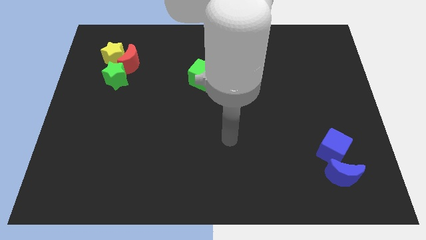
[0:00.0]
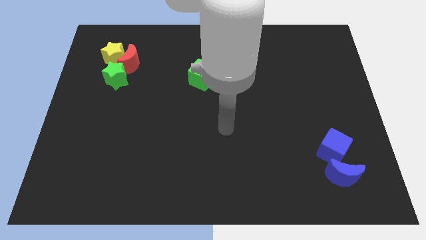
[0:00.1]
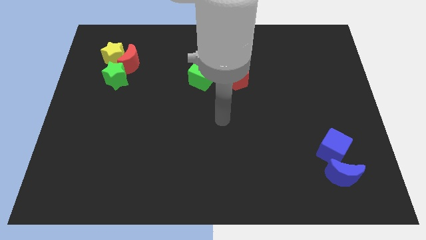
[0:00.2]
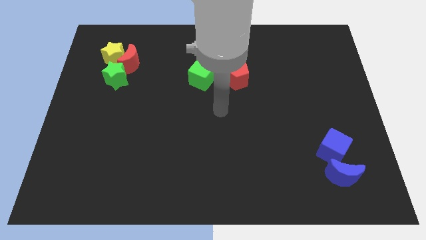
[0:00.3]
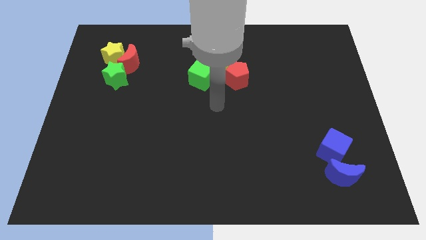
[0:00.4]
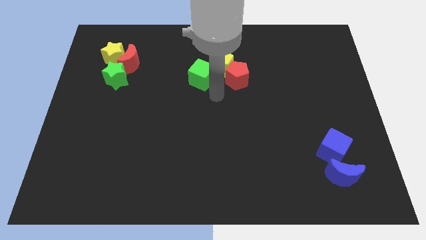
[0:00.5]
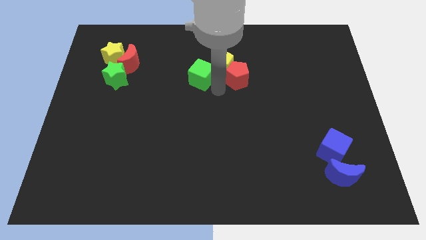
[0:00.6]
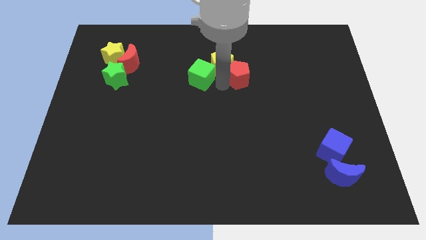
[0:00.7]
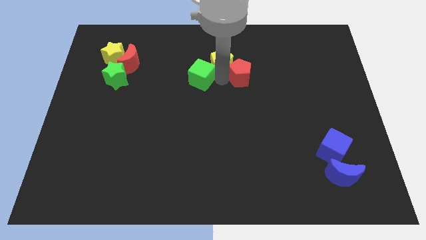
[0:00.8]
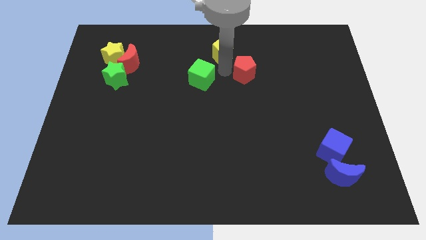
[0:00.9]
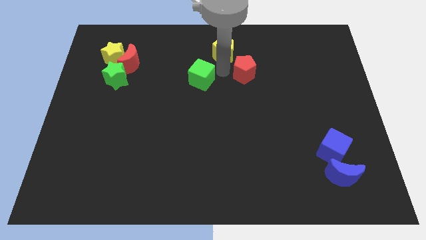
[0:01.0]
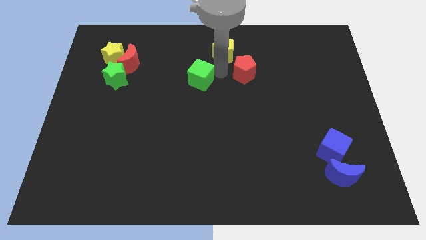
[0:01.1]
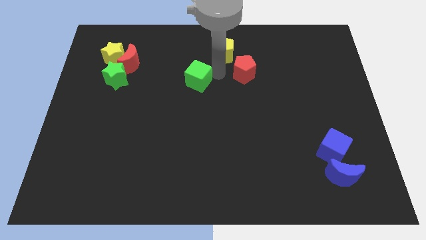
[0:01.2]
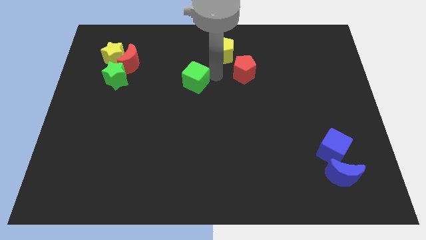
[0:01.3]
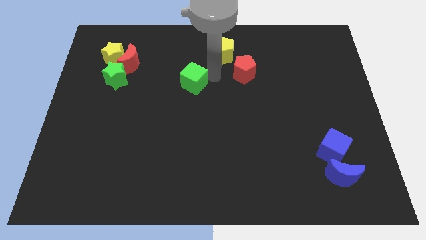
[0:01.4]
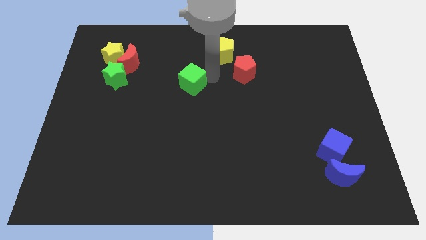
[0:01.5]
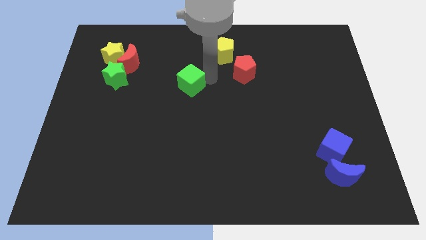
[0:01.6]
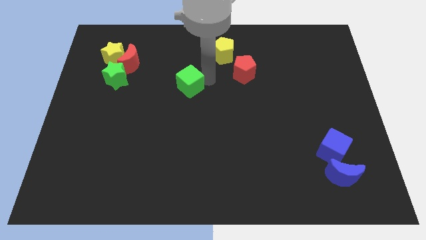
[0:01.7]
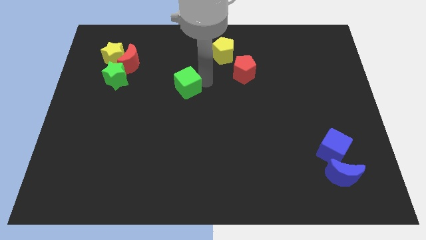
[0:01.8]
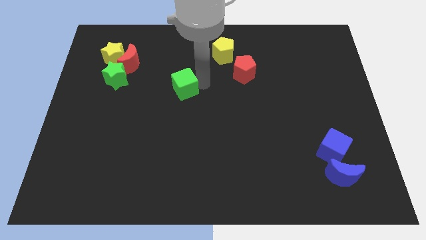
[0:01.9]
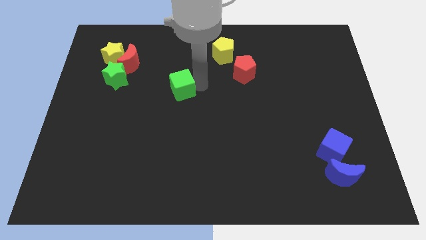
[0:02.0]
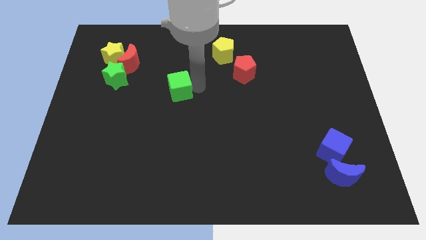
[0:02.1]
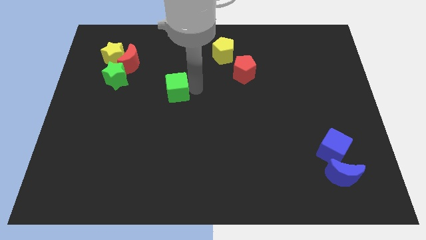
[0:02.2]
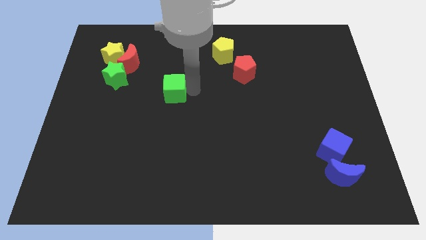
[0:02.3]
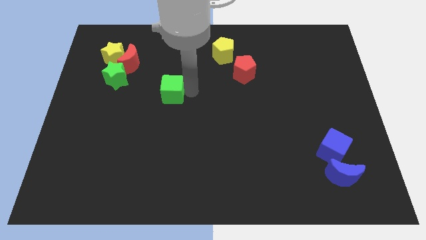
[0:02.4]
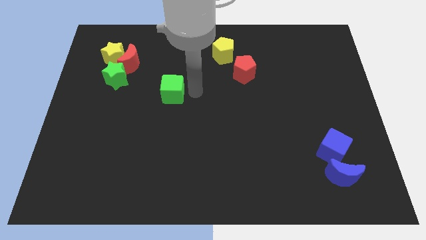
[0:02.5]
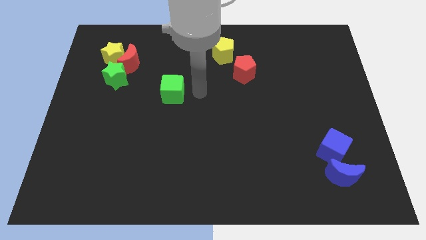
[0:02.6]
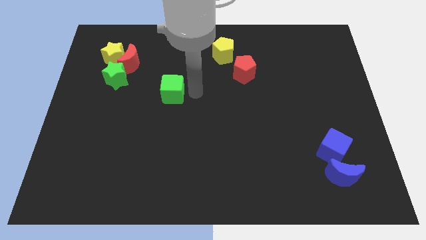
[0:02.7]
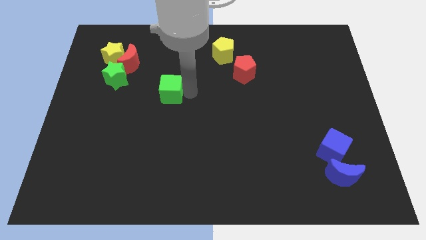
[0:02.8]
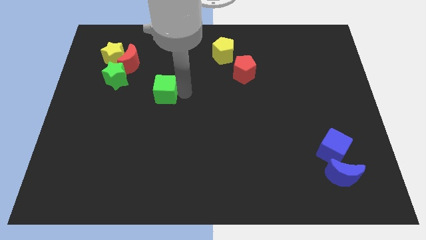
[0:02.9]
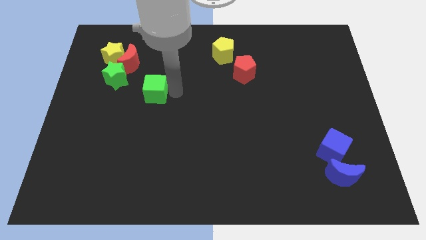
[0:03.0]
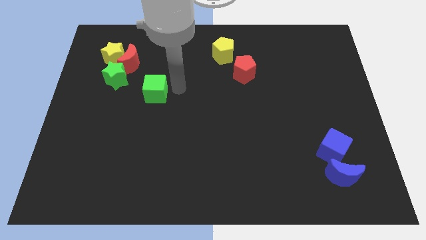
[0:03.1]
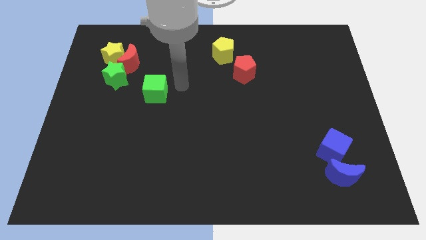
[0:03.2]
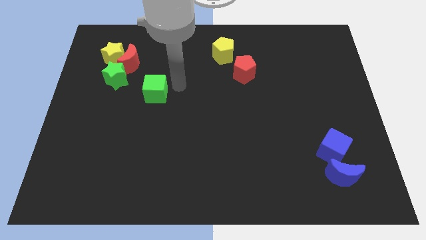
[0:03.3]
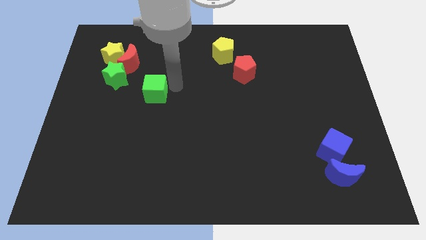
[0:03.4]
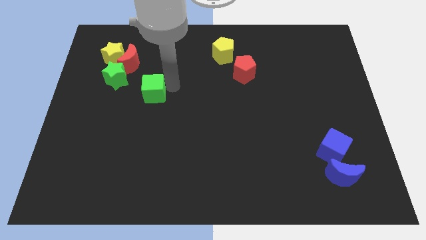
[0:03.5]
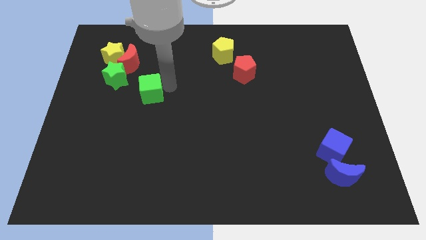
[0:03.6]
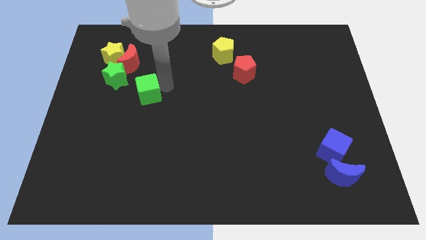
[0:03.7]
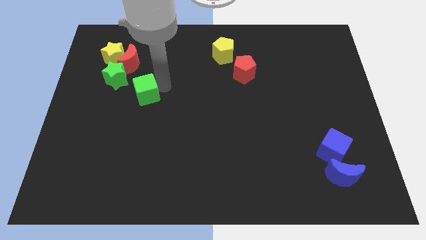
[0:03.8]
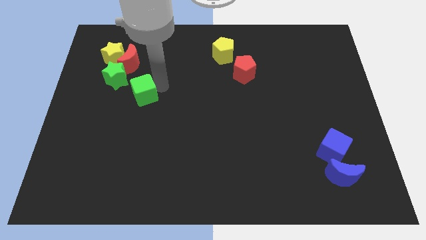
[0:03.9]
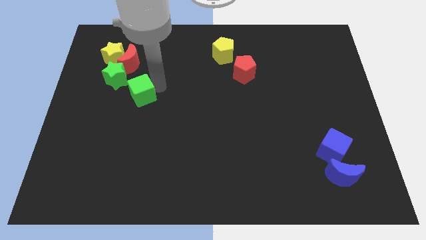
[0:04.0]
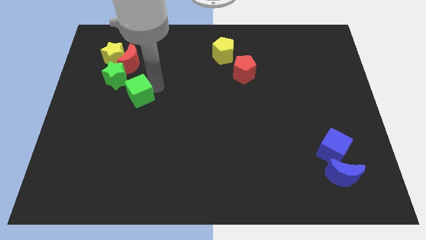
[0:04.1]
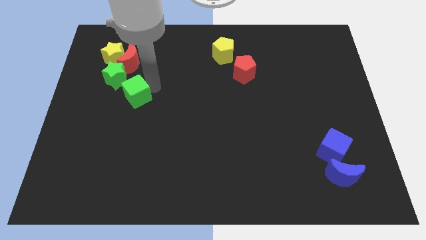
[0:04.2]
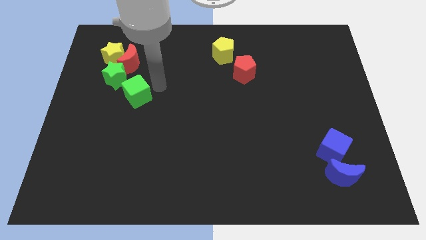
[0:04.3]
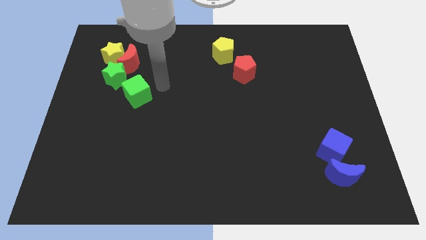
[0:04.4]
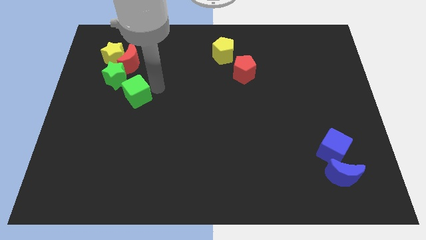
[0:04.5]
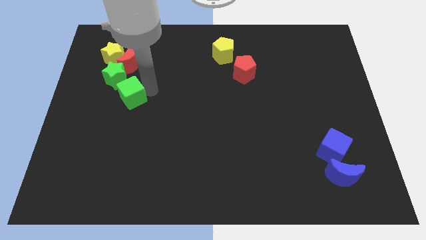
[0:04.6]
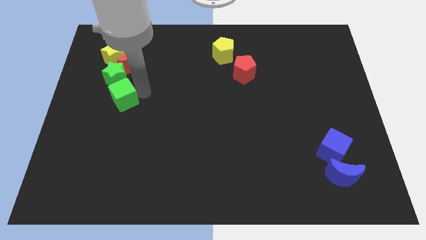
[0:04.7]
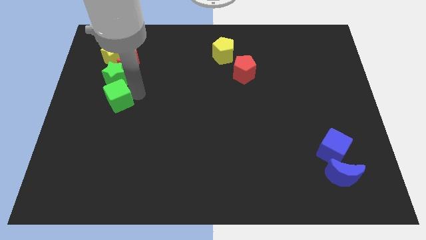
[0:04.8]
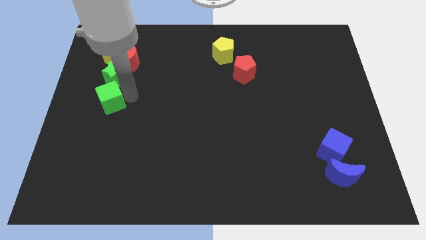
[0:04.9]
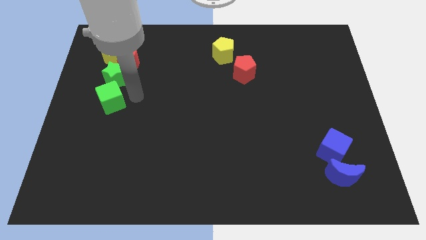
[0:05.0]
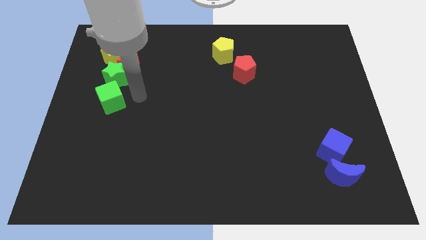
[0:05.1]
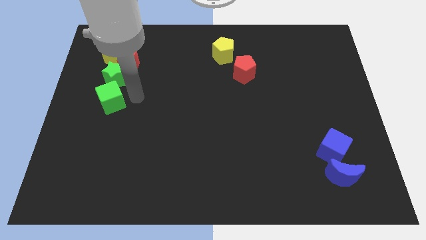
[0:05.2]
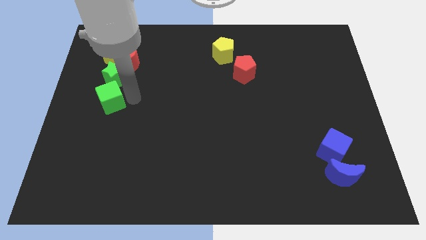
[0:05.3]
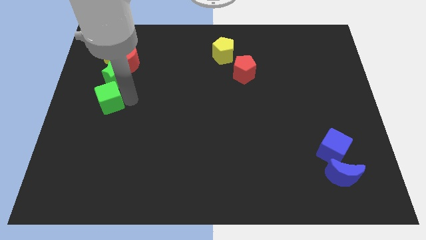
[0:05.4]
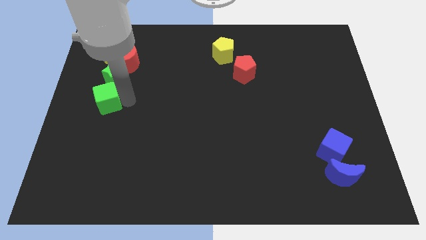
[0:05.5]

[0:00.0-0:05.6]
move the green cube to the center left

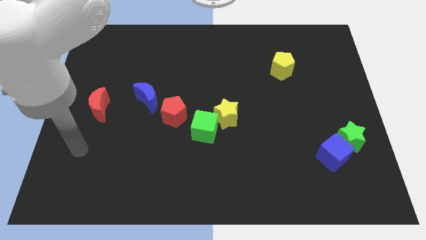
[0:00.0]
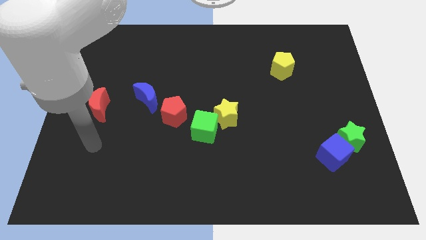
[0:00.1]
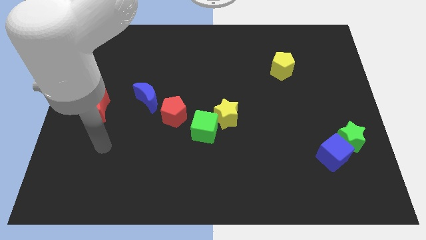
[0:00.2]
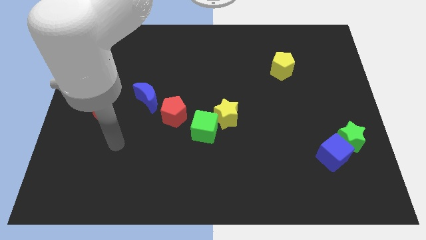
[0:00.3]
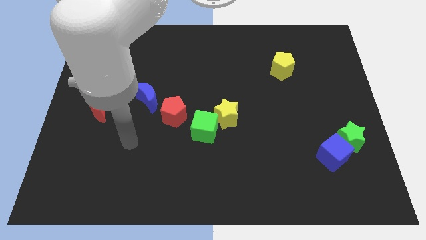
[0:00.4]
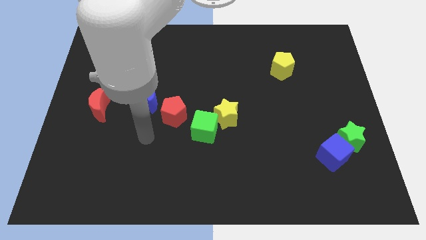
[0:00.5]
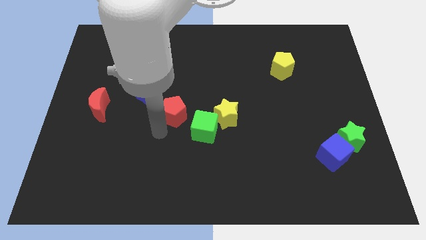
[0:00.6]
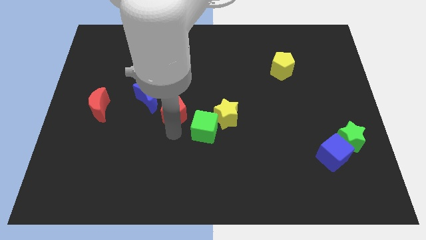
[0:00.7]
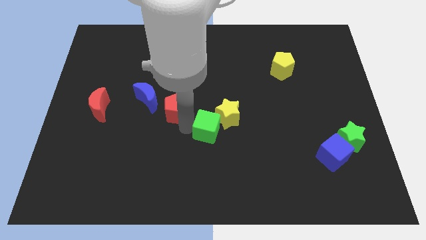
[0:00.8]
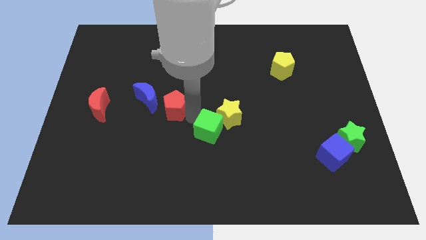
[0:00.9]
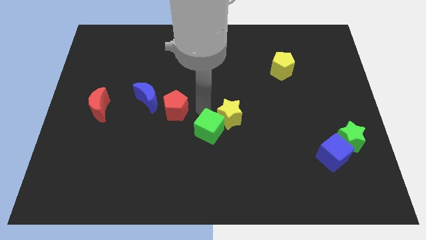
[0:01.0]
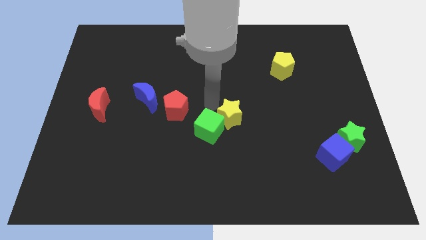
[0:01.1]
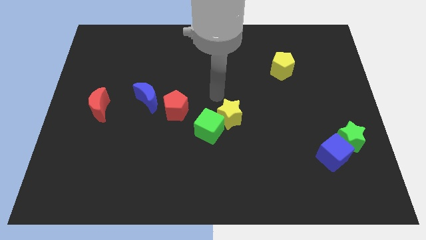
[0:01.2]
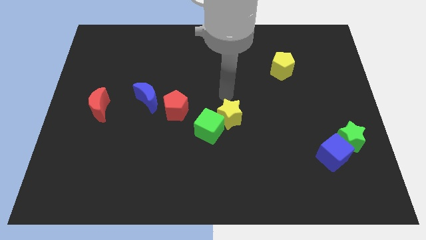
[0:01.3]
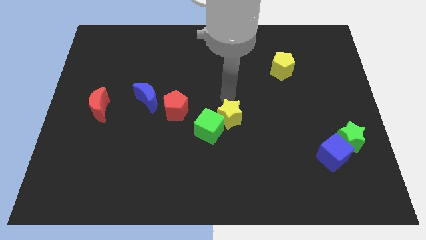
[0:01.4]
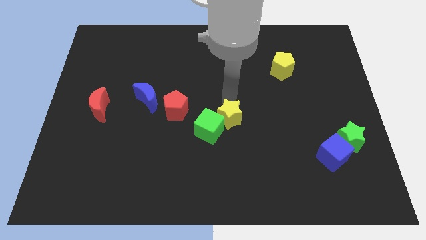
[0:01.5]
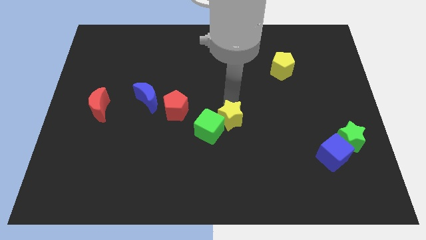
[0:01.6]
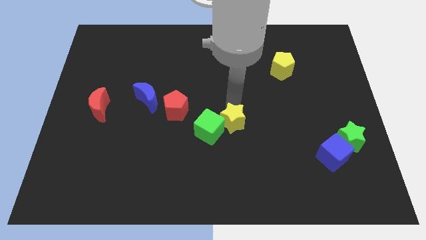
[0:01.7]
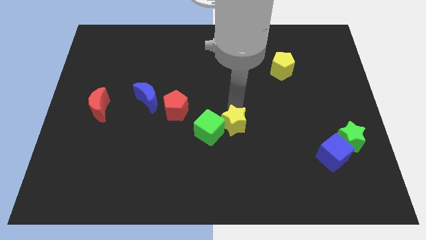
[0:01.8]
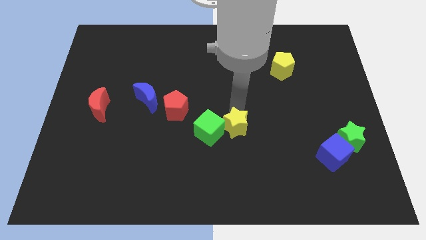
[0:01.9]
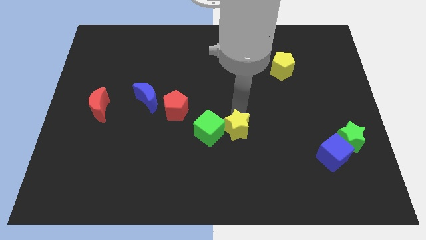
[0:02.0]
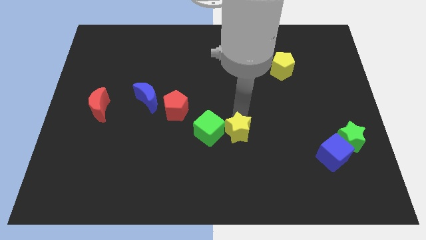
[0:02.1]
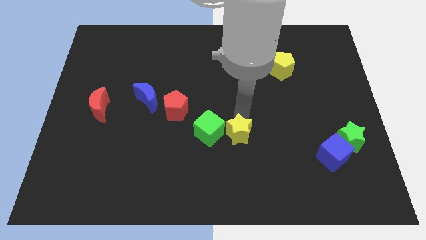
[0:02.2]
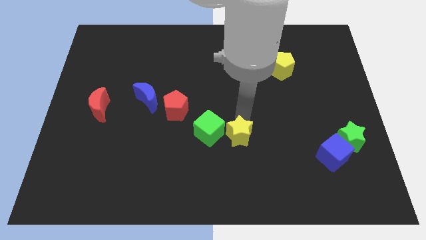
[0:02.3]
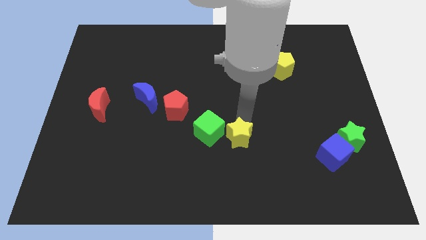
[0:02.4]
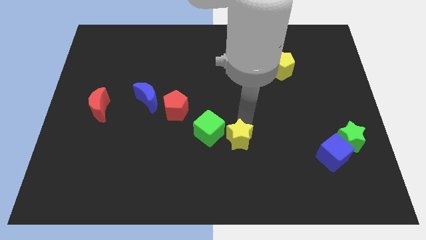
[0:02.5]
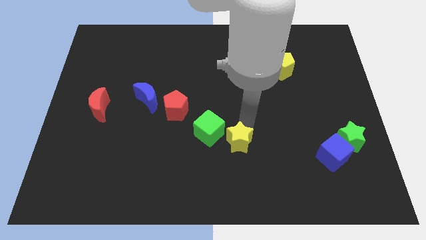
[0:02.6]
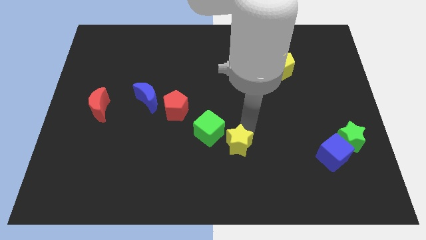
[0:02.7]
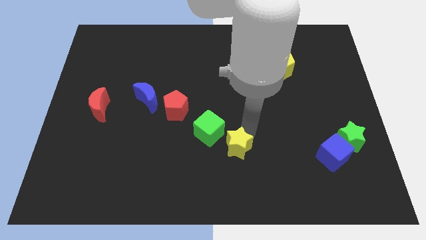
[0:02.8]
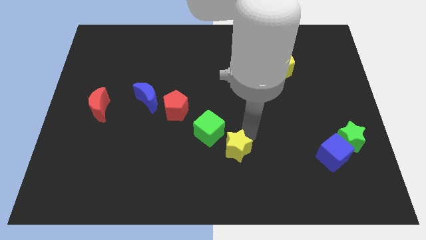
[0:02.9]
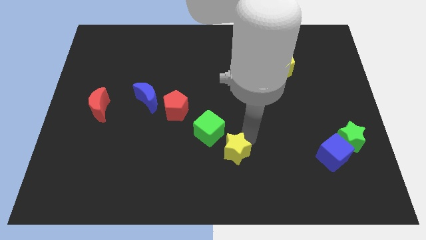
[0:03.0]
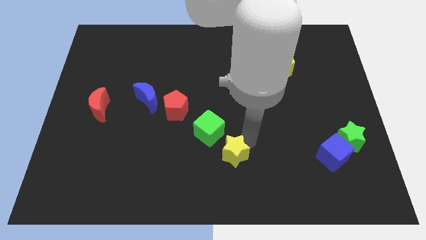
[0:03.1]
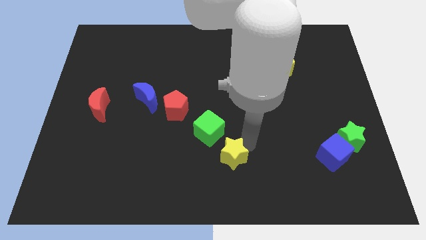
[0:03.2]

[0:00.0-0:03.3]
put the yellow star to the bottom
